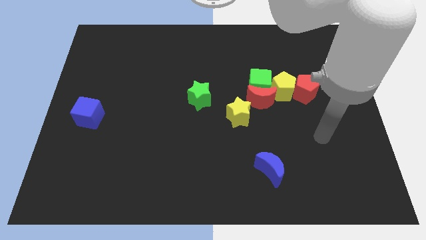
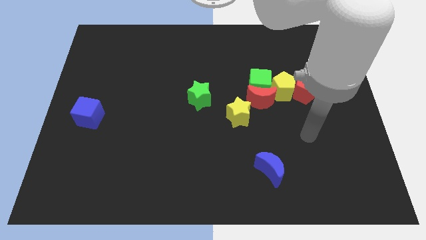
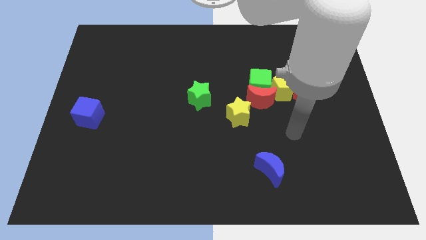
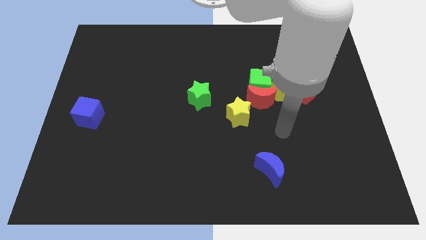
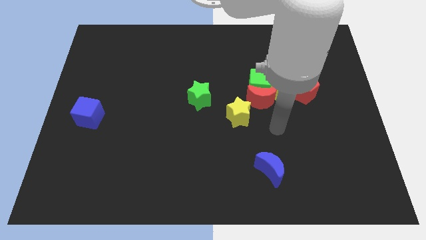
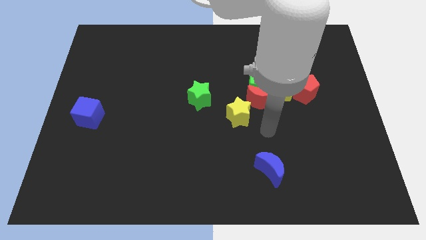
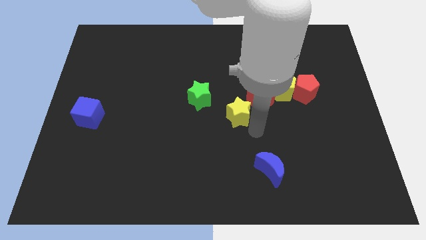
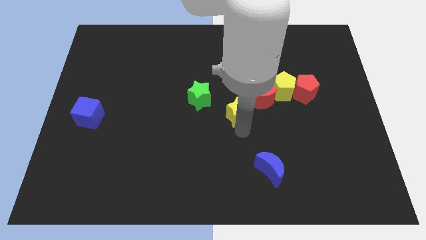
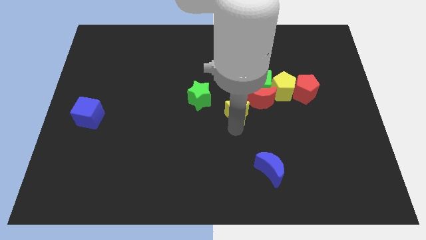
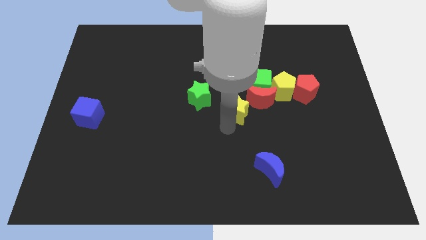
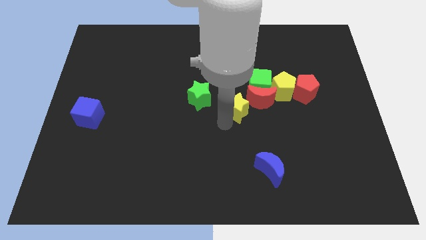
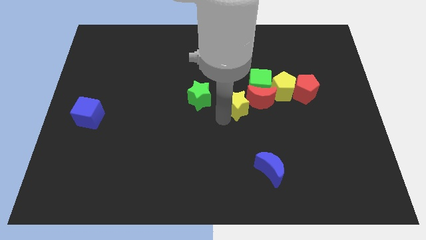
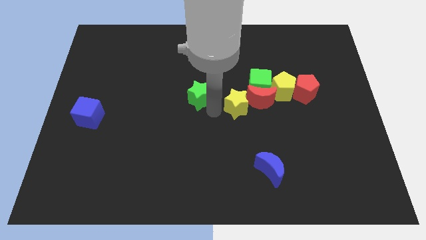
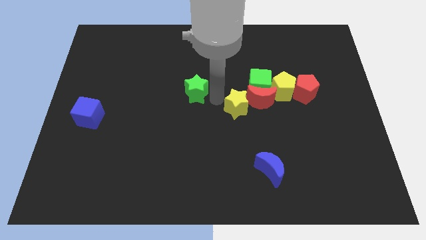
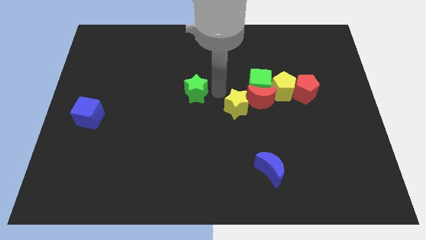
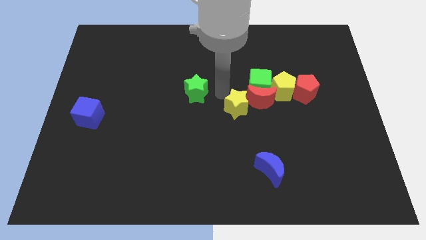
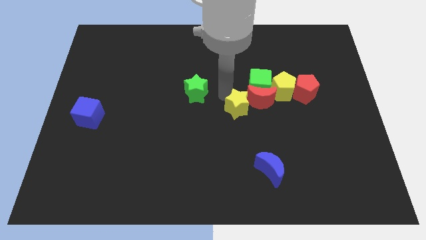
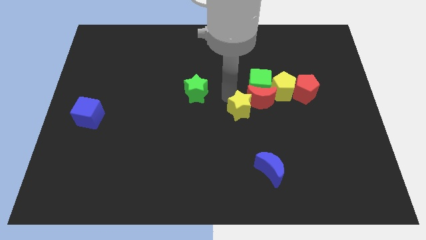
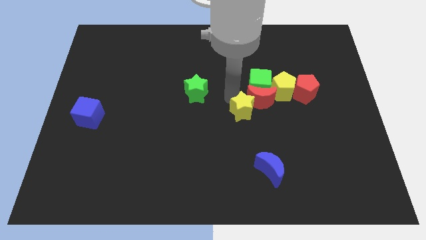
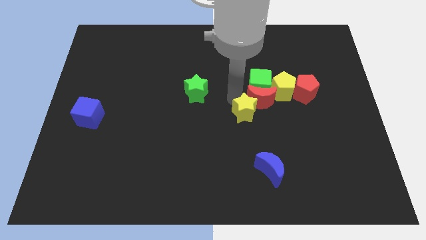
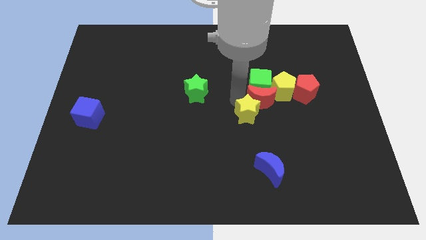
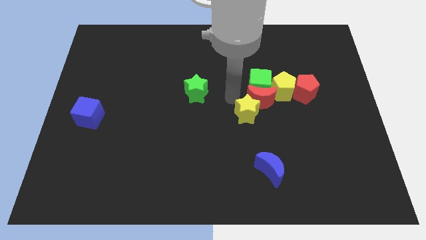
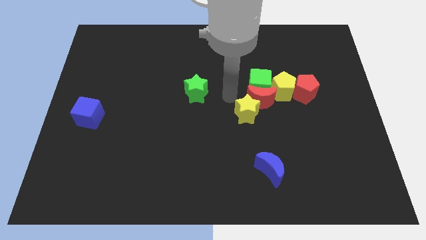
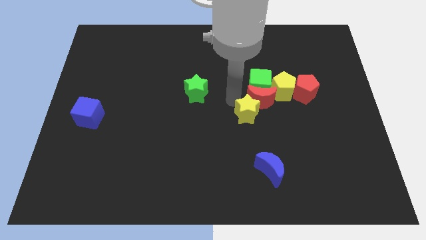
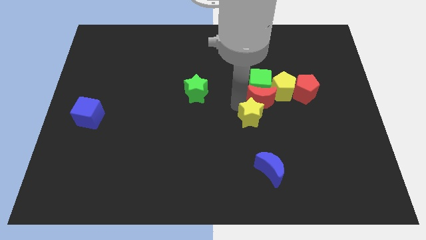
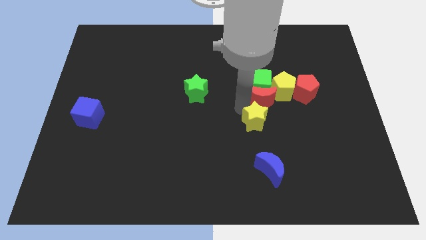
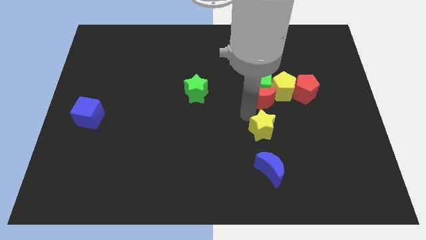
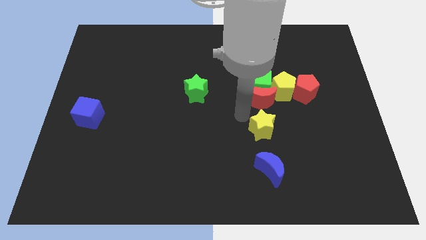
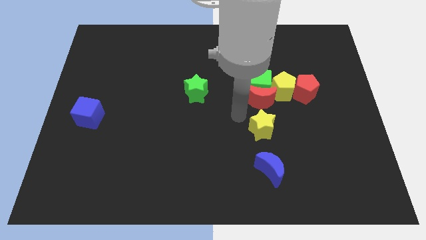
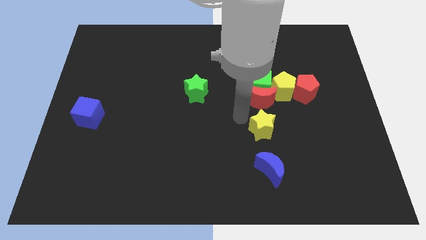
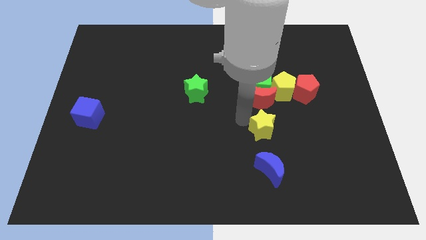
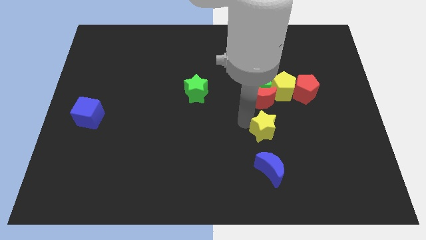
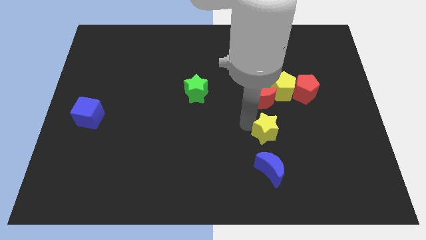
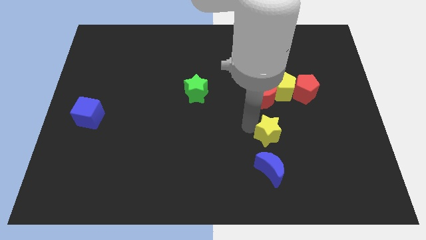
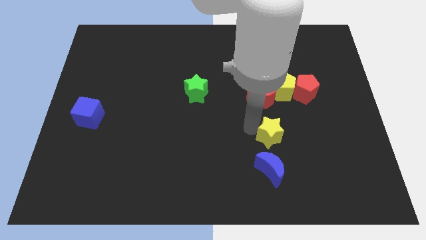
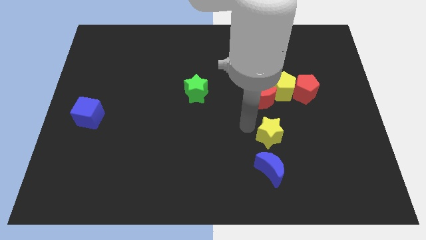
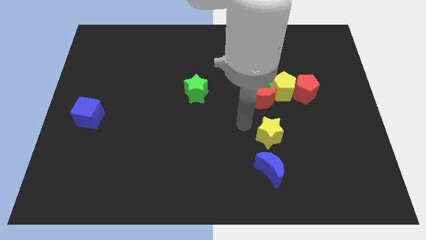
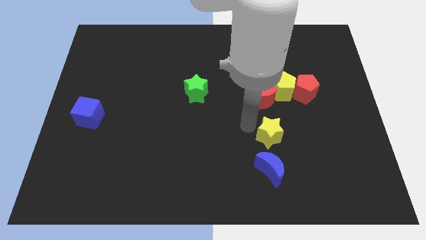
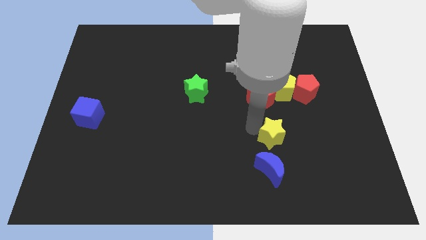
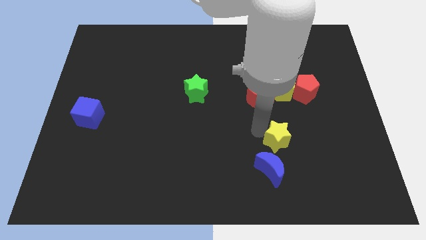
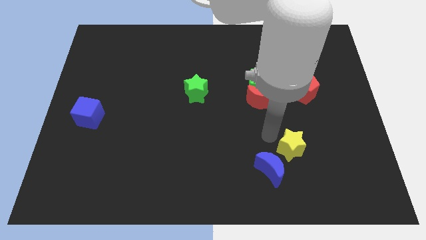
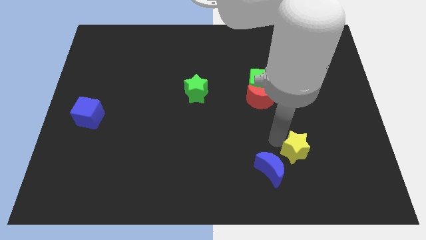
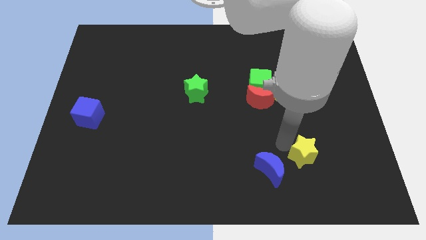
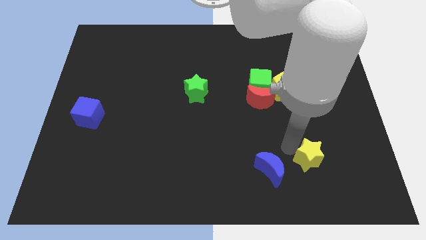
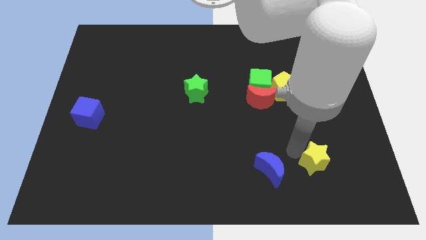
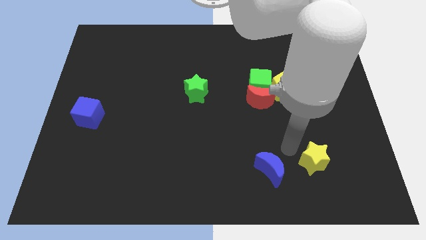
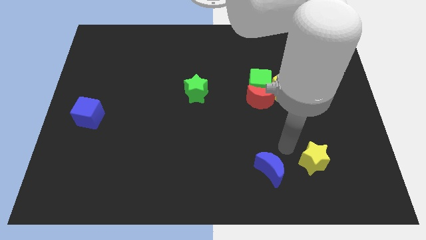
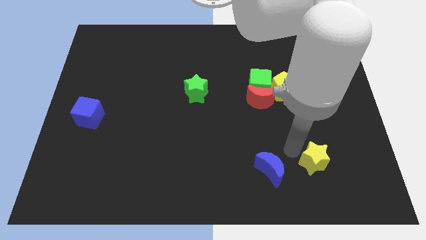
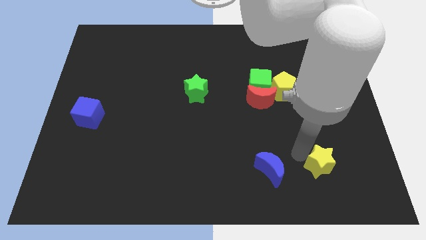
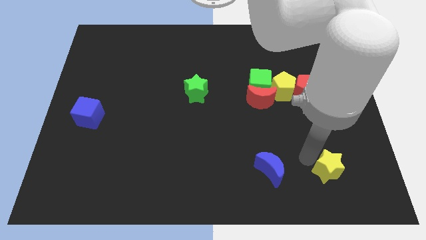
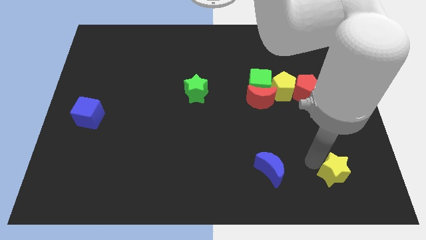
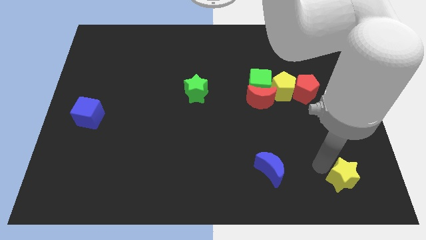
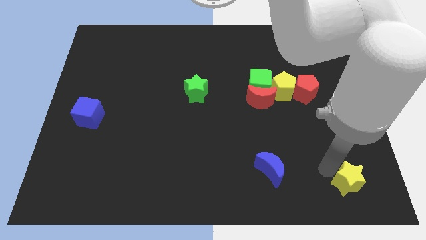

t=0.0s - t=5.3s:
put the yellow star to the bottom right of the board

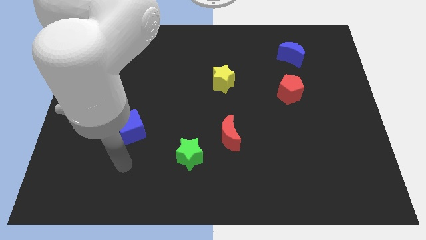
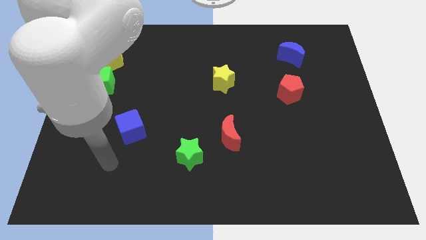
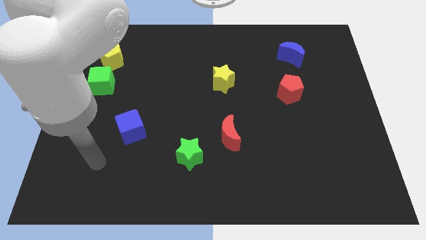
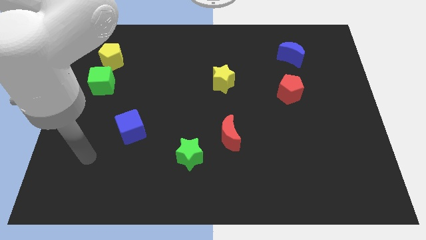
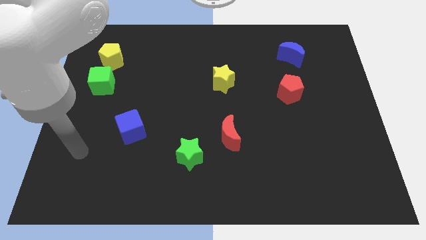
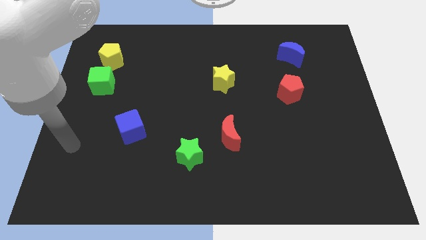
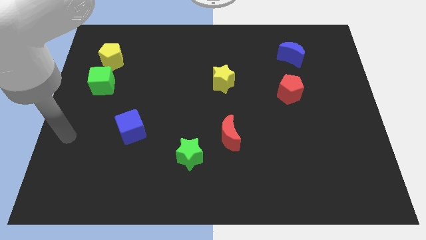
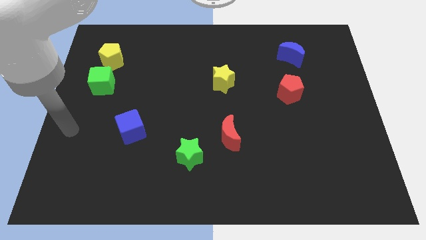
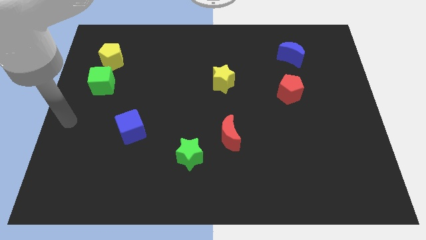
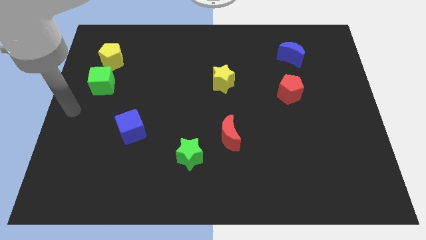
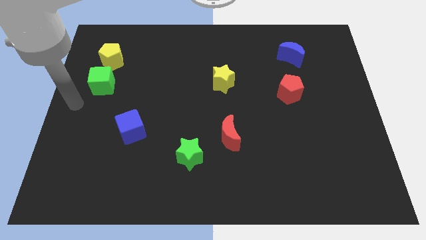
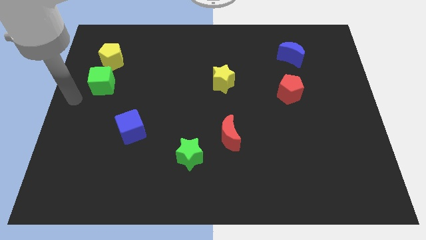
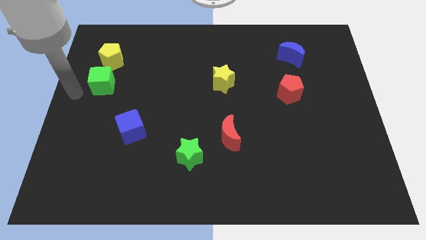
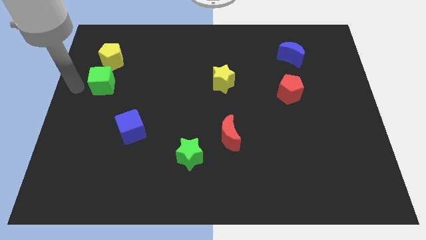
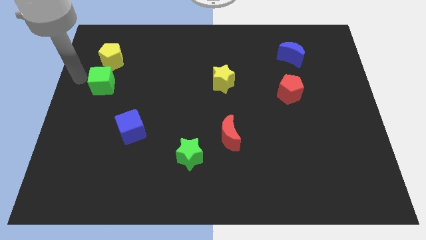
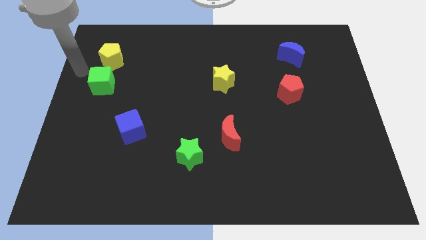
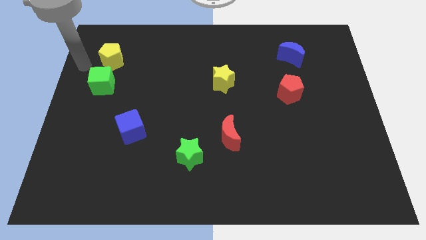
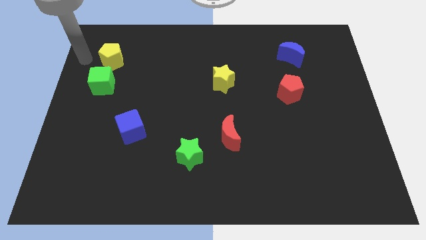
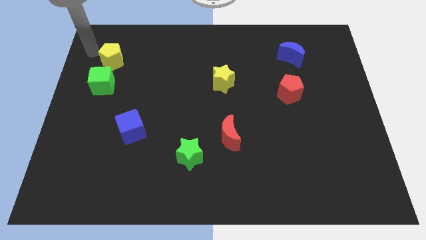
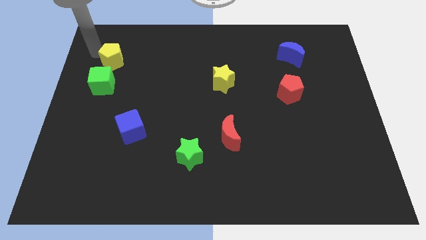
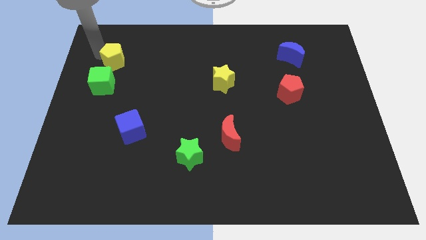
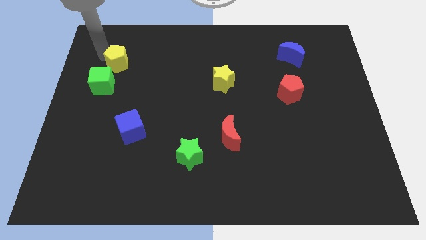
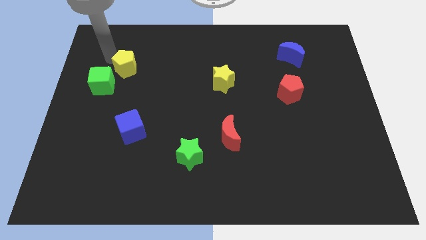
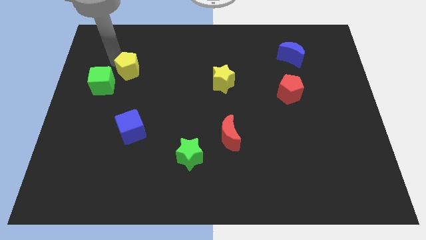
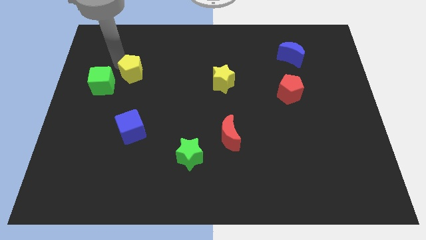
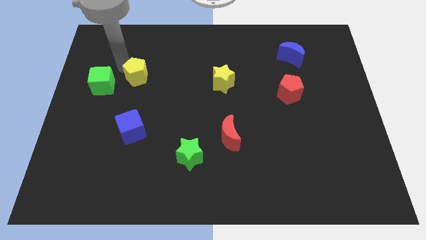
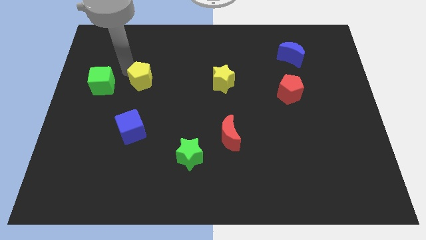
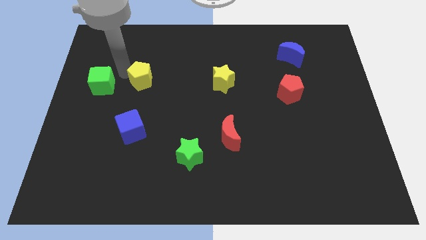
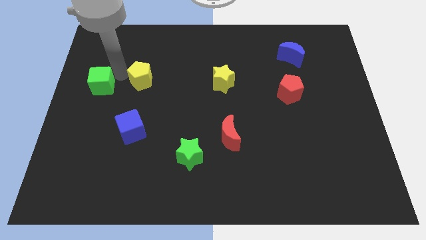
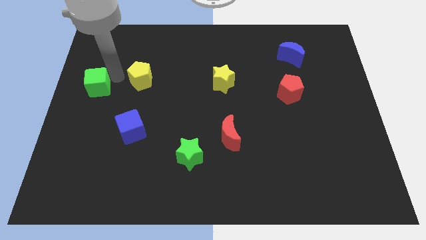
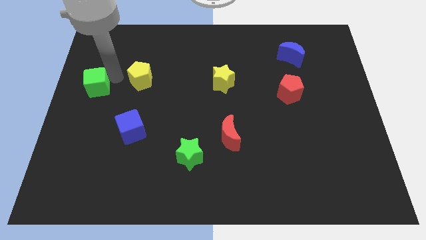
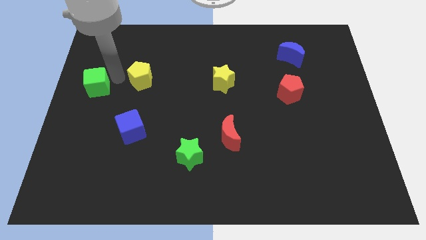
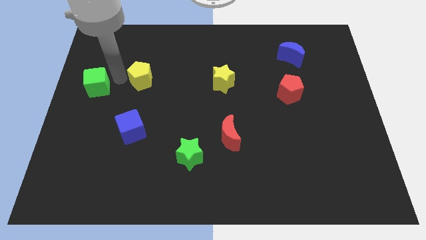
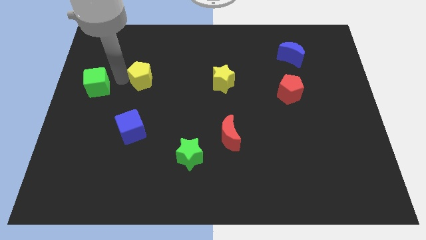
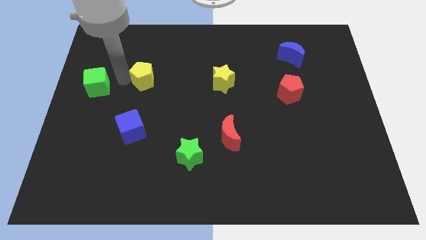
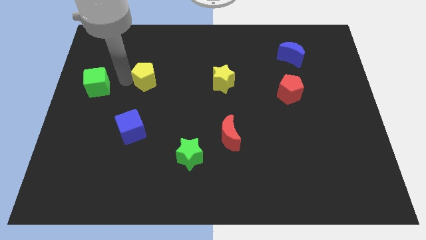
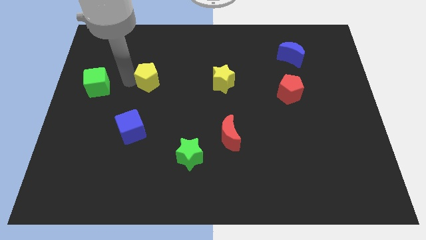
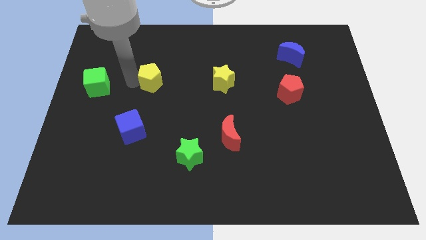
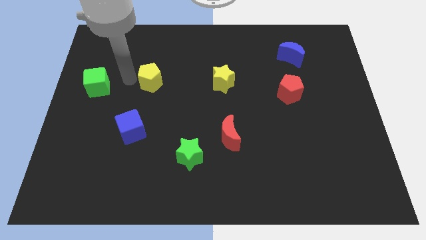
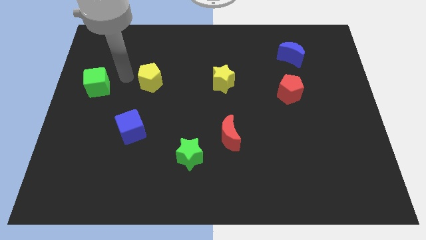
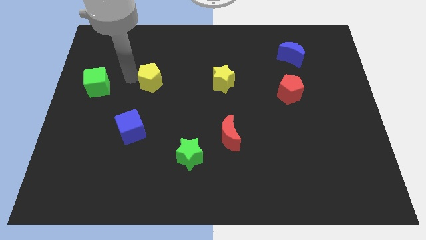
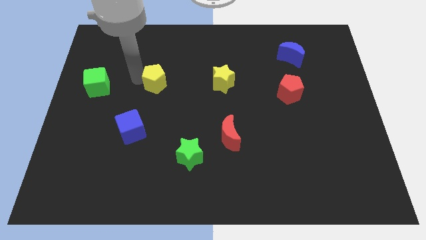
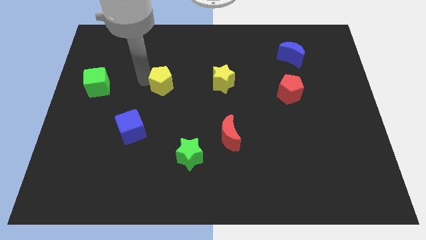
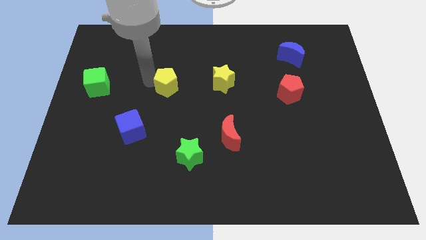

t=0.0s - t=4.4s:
push the yellow pentagon to the center
